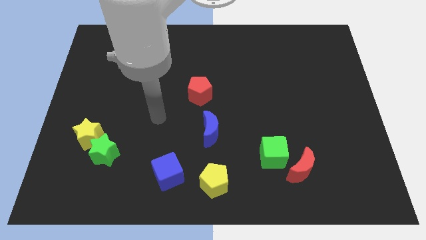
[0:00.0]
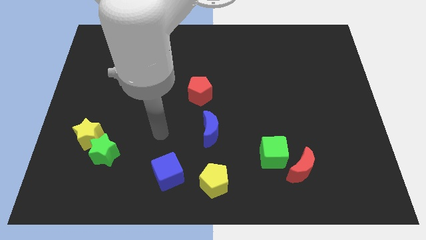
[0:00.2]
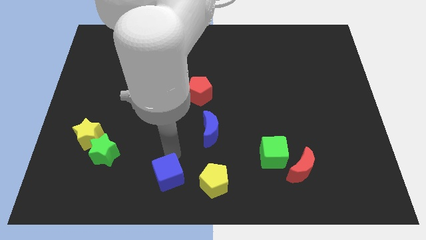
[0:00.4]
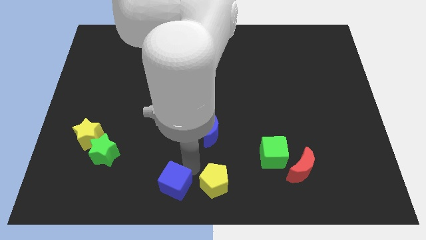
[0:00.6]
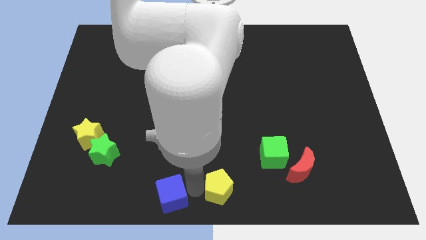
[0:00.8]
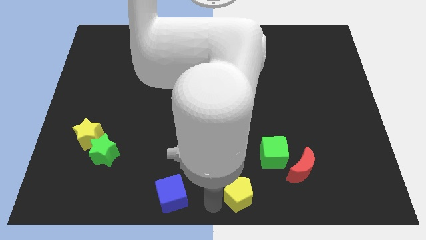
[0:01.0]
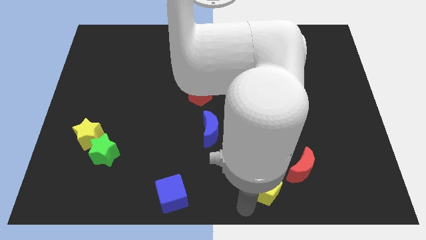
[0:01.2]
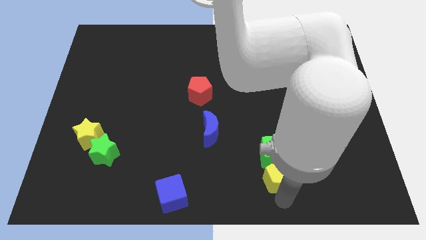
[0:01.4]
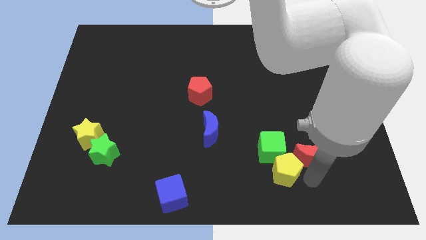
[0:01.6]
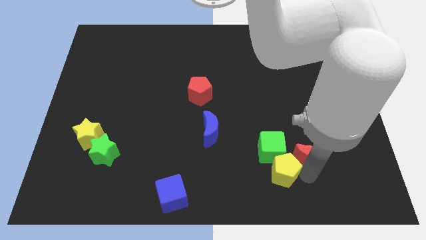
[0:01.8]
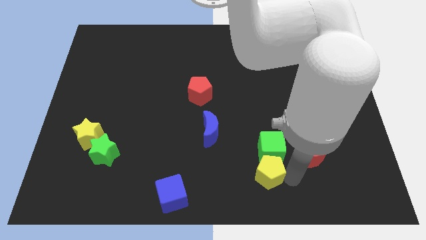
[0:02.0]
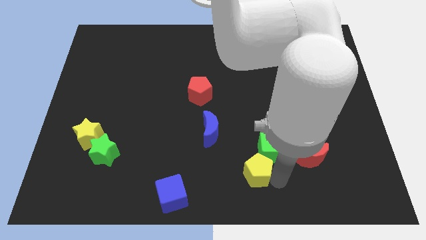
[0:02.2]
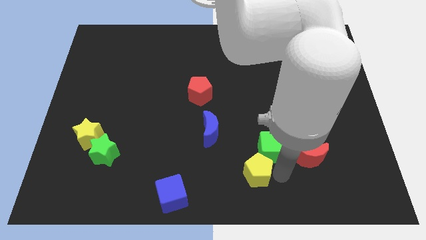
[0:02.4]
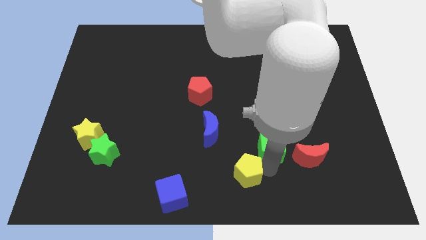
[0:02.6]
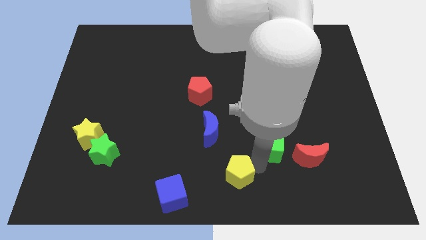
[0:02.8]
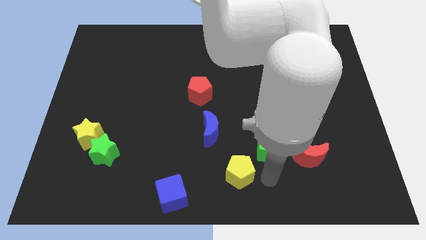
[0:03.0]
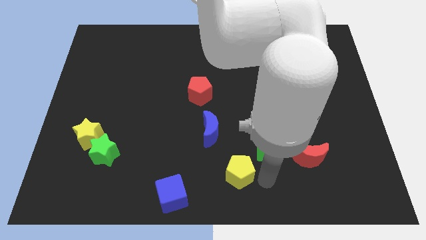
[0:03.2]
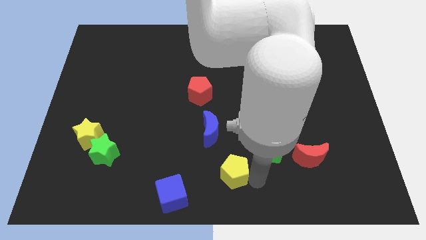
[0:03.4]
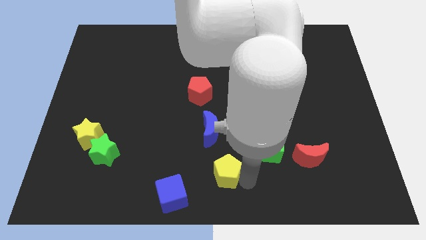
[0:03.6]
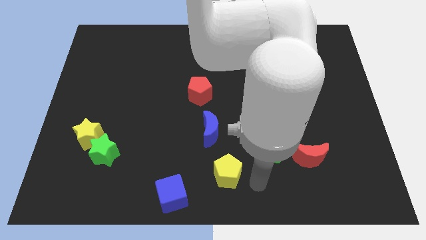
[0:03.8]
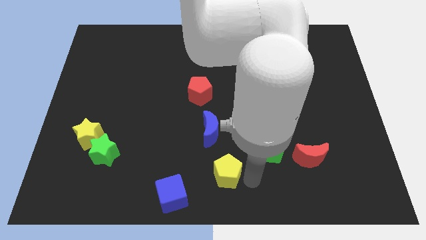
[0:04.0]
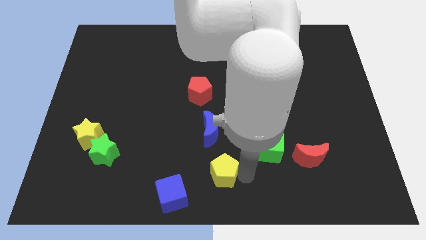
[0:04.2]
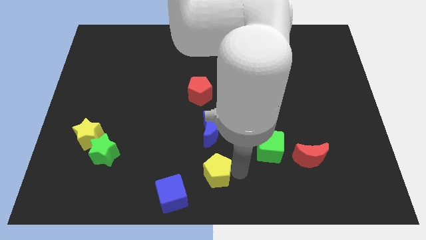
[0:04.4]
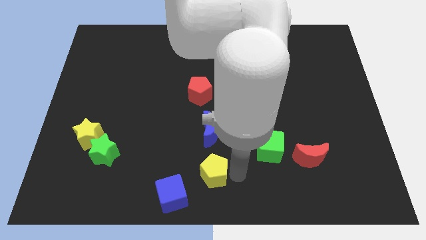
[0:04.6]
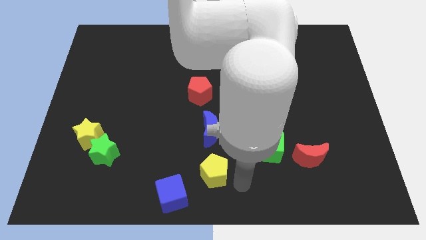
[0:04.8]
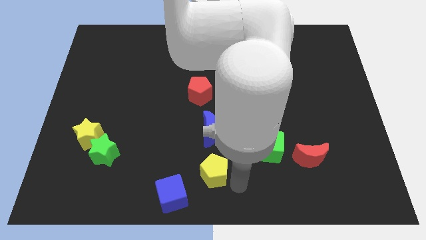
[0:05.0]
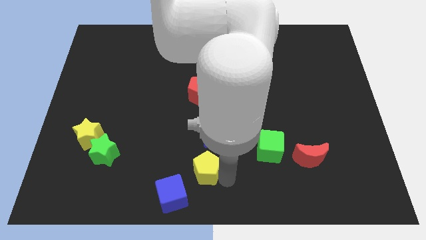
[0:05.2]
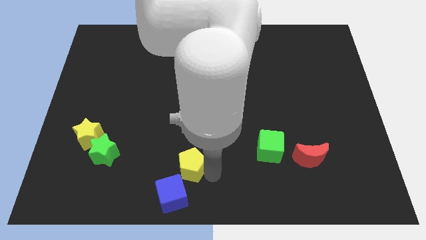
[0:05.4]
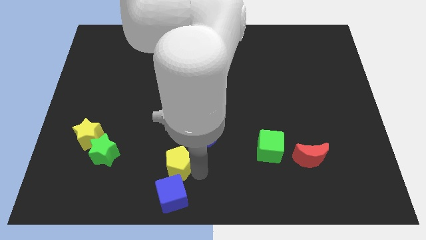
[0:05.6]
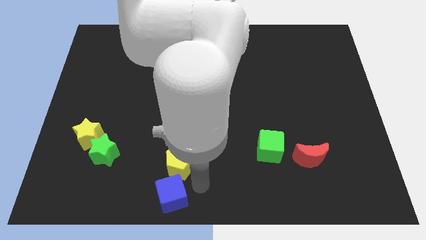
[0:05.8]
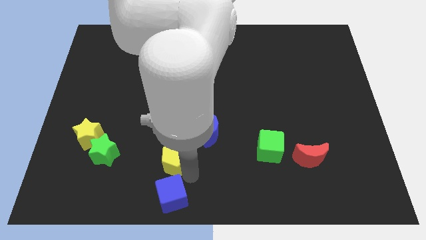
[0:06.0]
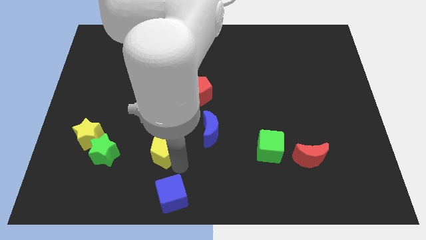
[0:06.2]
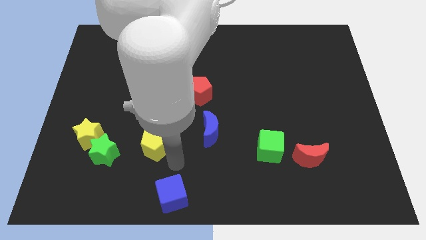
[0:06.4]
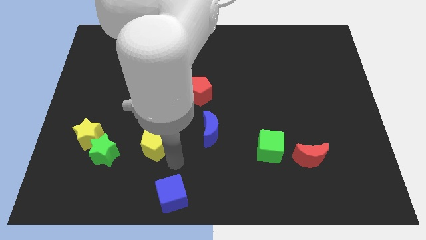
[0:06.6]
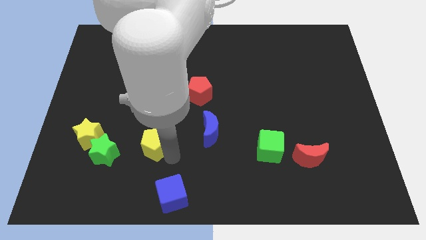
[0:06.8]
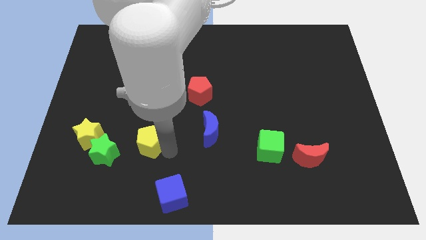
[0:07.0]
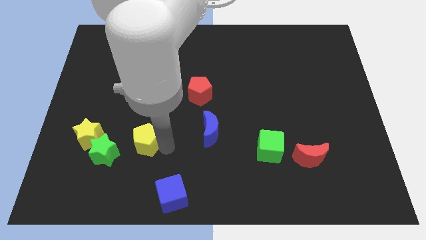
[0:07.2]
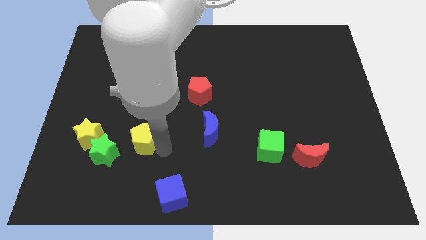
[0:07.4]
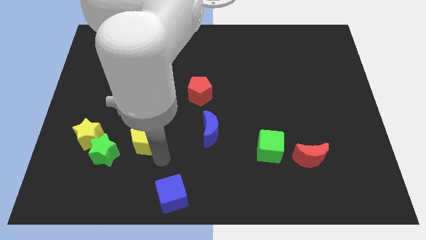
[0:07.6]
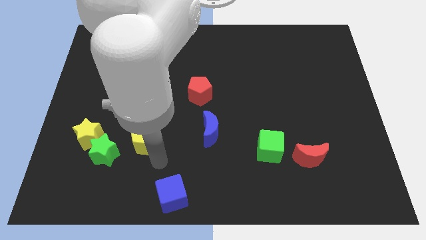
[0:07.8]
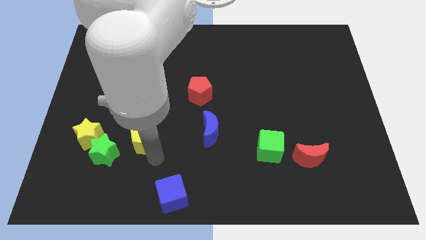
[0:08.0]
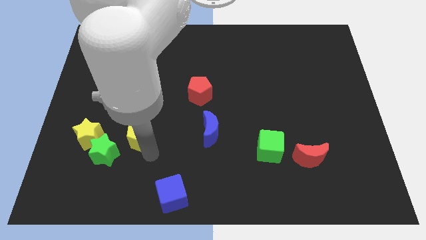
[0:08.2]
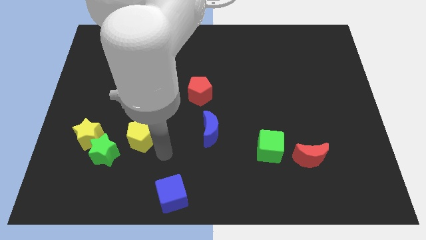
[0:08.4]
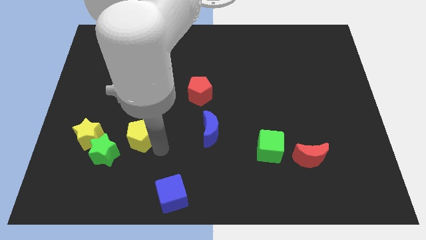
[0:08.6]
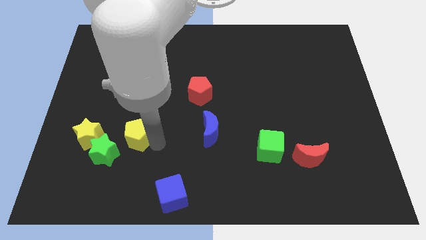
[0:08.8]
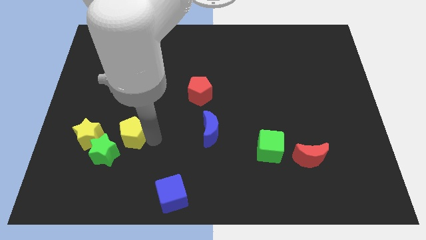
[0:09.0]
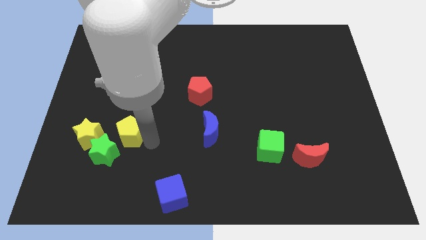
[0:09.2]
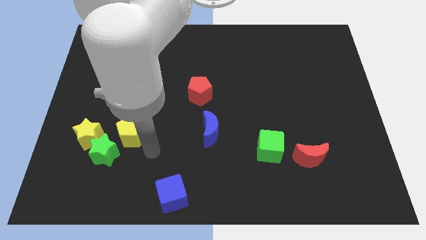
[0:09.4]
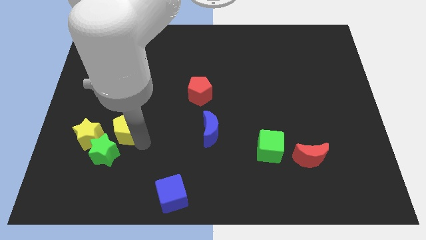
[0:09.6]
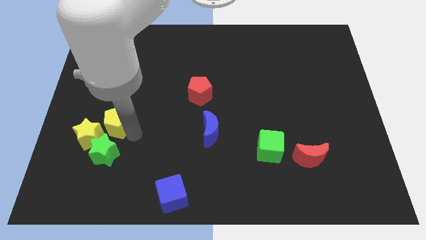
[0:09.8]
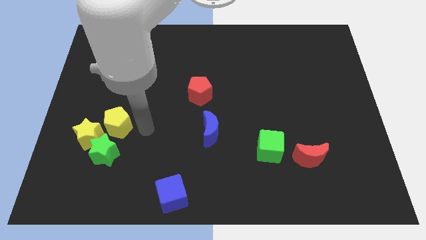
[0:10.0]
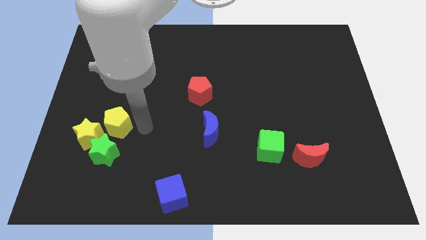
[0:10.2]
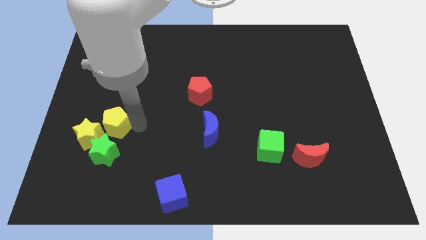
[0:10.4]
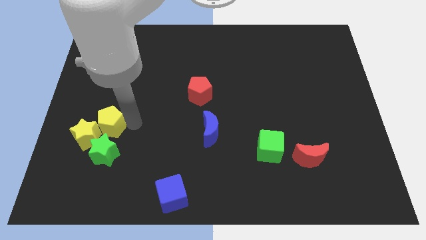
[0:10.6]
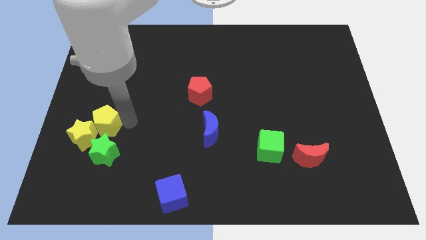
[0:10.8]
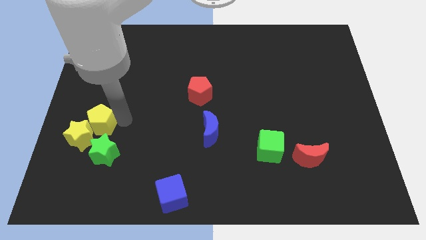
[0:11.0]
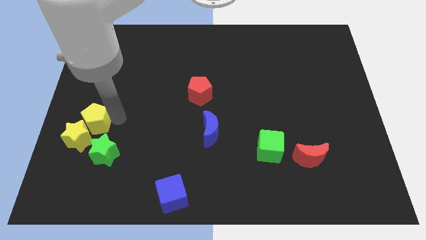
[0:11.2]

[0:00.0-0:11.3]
push the yellow pentagon to the center left
